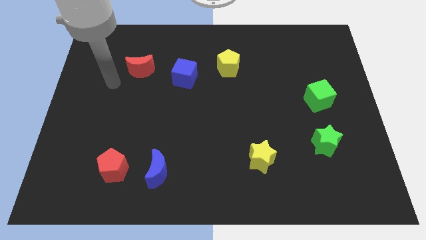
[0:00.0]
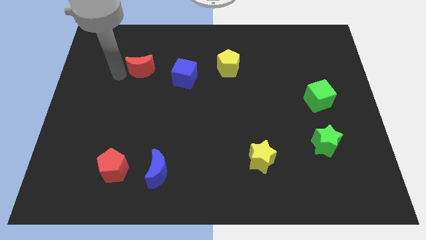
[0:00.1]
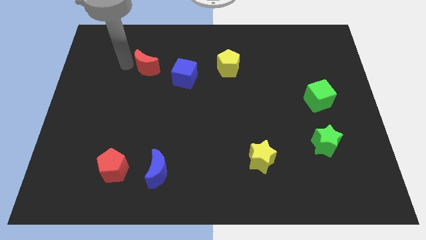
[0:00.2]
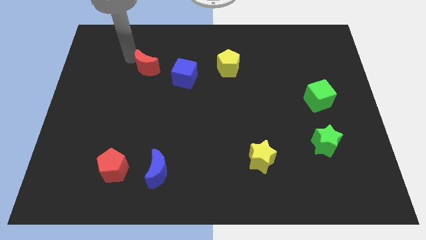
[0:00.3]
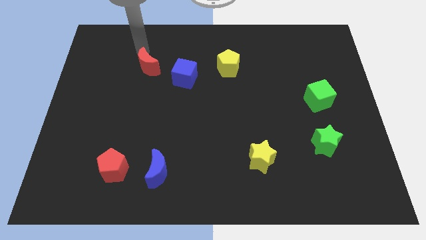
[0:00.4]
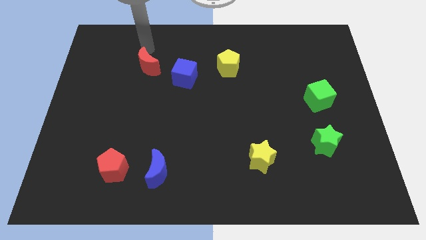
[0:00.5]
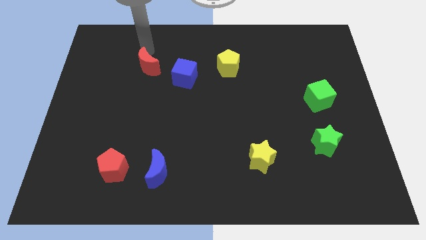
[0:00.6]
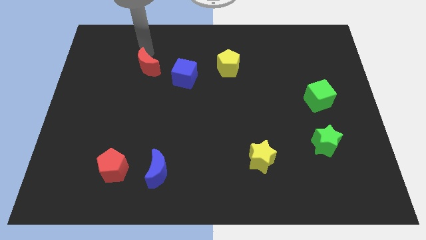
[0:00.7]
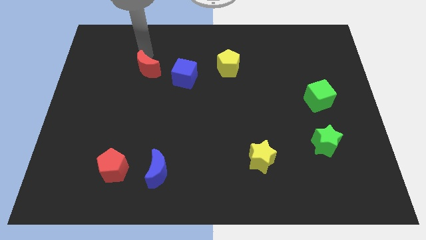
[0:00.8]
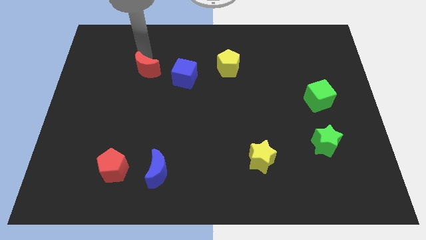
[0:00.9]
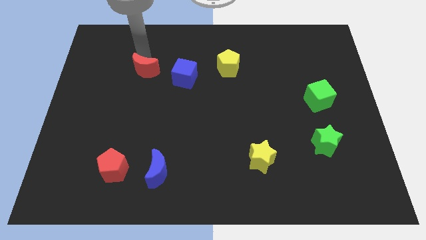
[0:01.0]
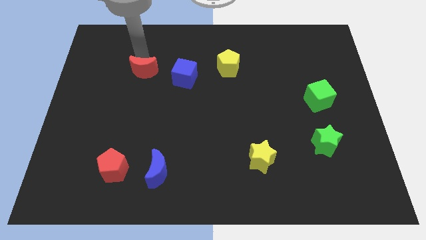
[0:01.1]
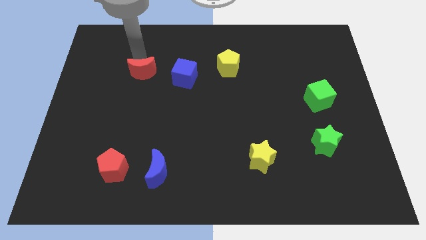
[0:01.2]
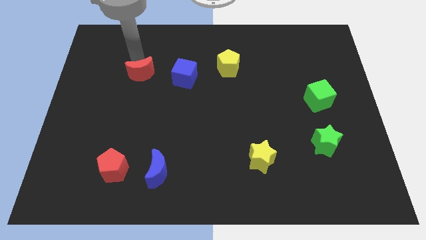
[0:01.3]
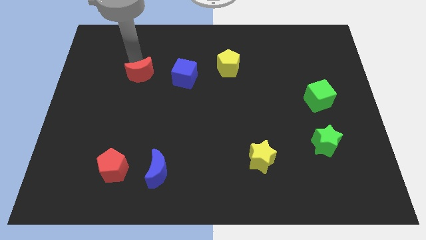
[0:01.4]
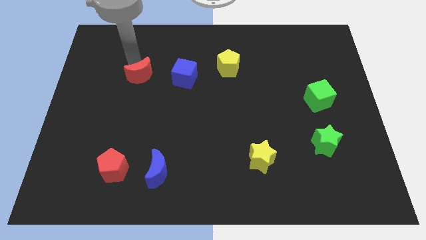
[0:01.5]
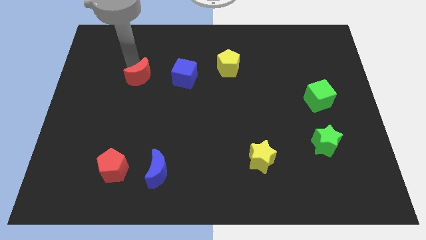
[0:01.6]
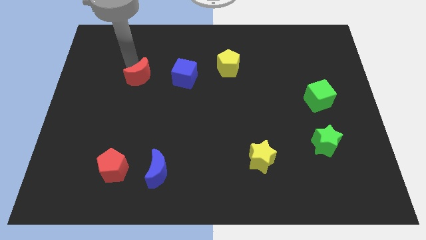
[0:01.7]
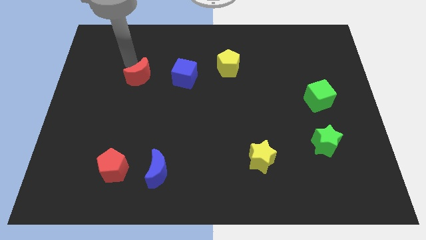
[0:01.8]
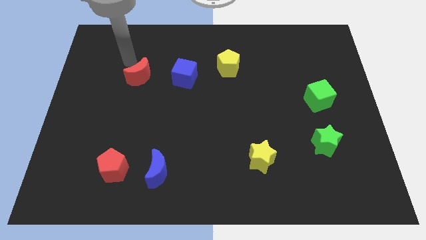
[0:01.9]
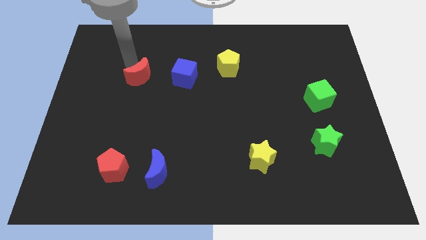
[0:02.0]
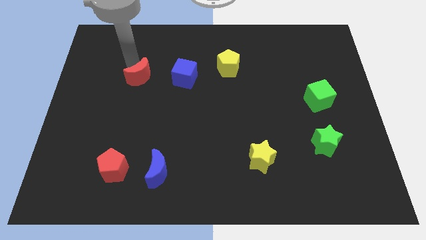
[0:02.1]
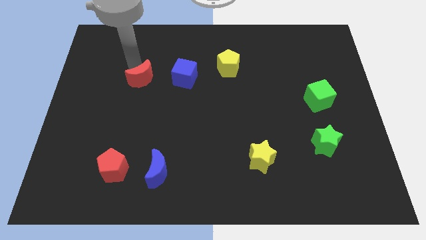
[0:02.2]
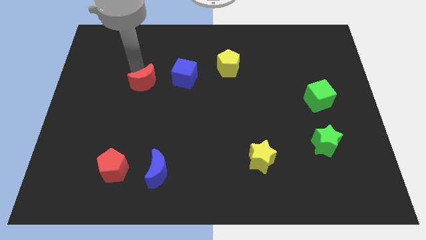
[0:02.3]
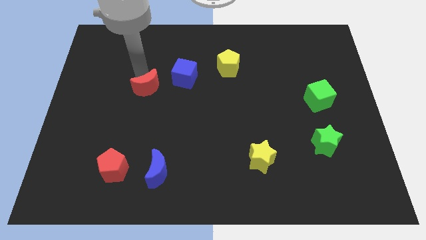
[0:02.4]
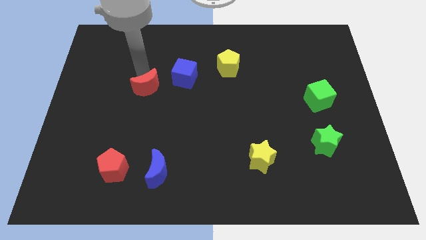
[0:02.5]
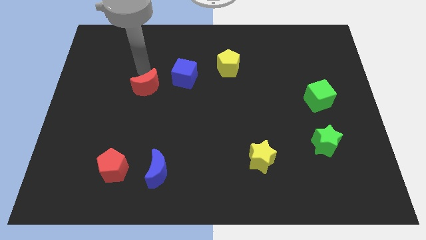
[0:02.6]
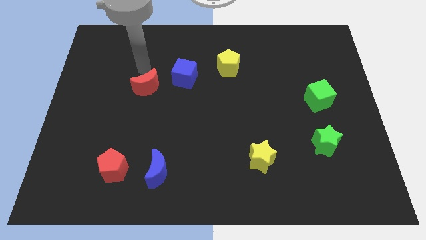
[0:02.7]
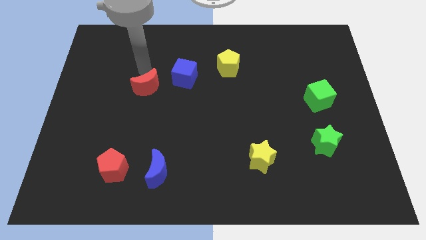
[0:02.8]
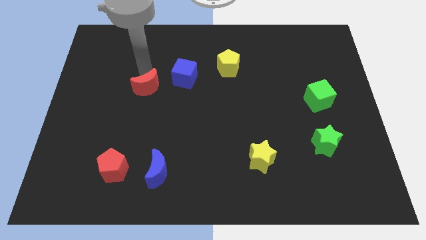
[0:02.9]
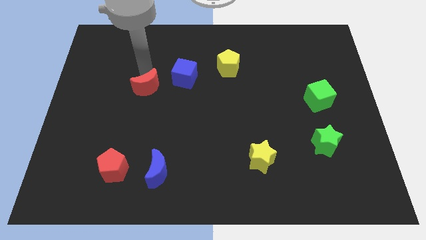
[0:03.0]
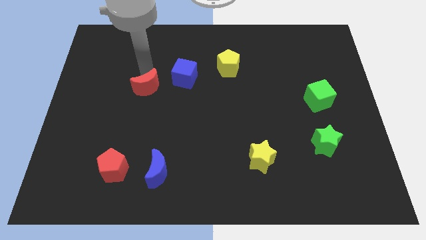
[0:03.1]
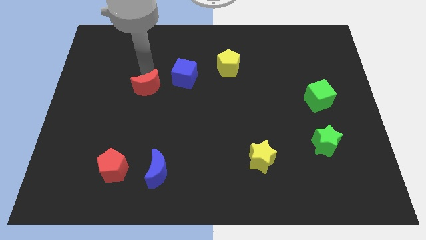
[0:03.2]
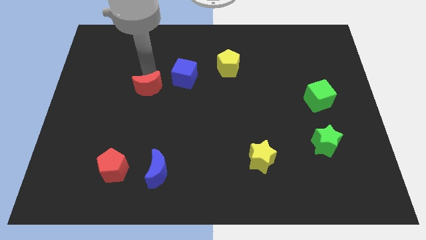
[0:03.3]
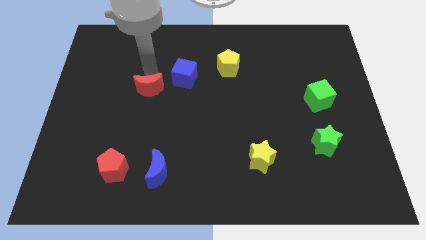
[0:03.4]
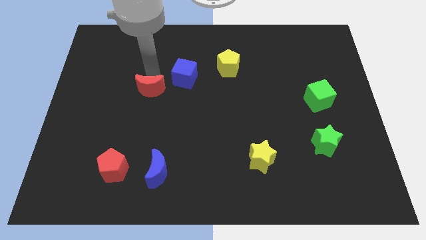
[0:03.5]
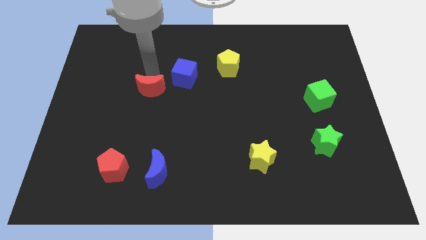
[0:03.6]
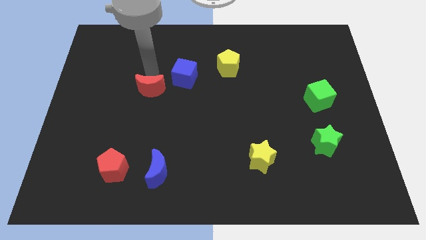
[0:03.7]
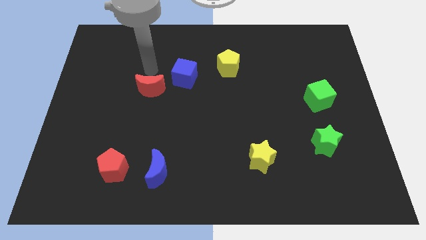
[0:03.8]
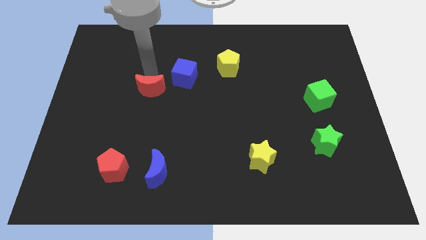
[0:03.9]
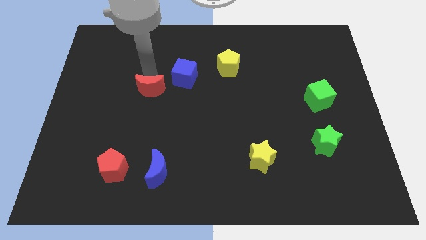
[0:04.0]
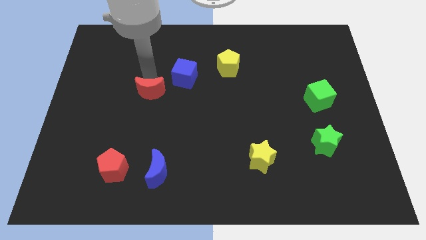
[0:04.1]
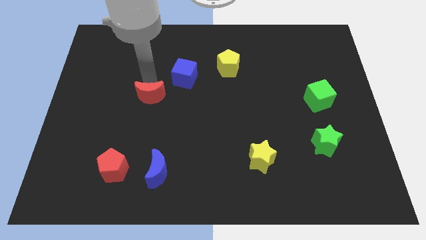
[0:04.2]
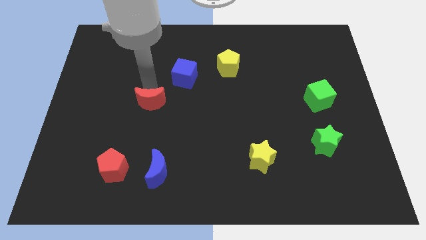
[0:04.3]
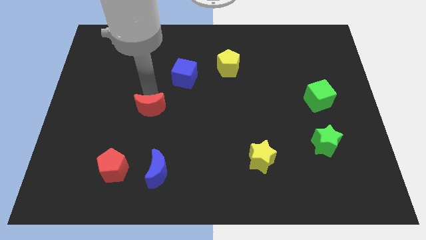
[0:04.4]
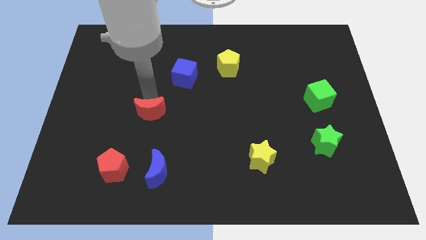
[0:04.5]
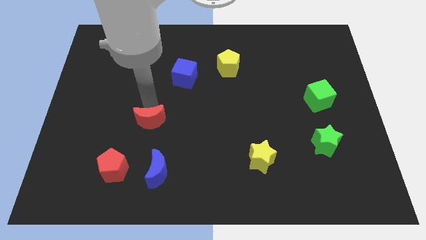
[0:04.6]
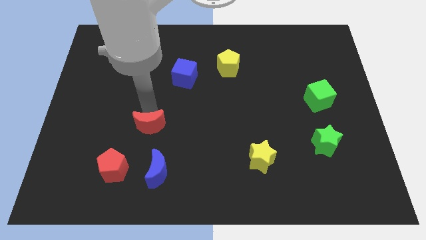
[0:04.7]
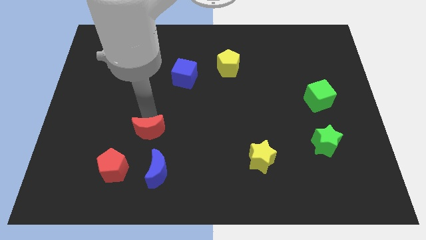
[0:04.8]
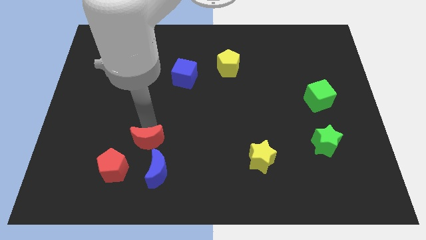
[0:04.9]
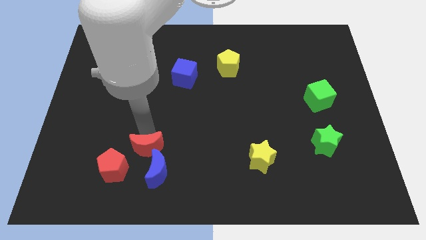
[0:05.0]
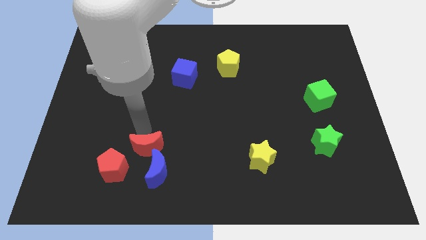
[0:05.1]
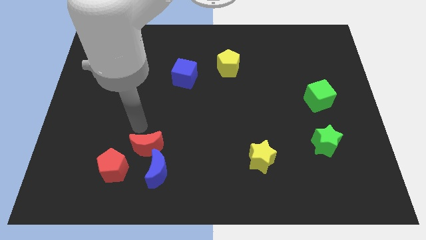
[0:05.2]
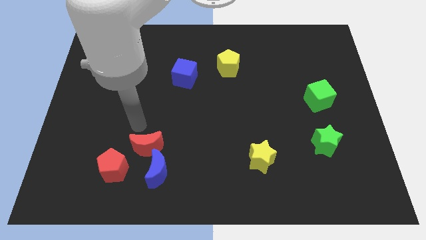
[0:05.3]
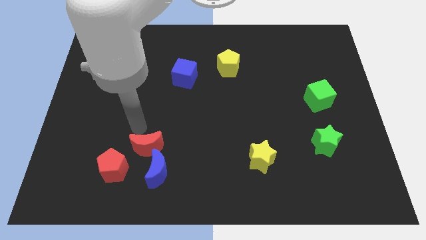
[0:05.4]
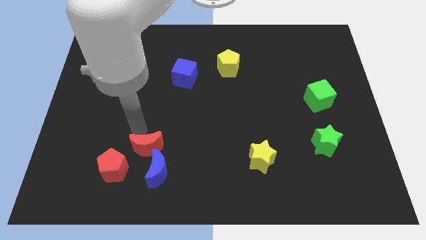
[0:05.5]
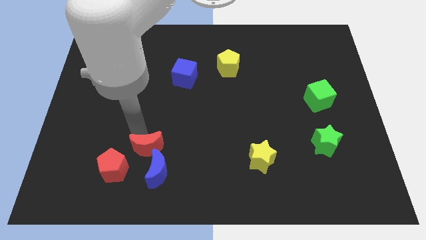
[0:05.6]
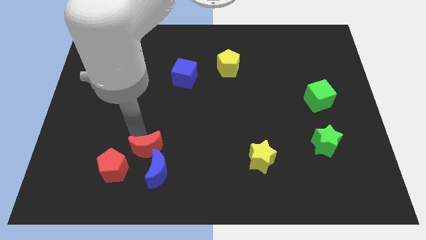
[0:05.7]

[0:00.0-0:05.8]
slide the red moon to the blue moon

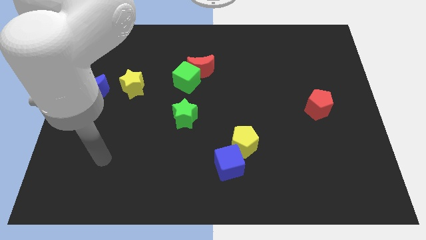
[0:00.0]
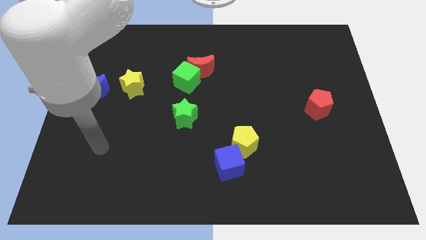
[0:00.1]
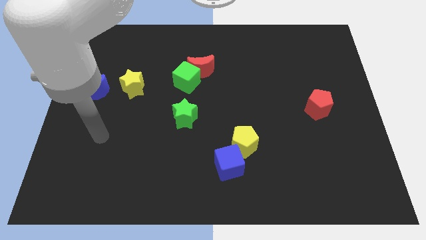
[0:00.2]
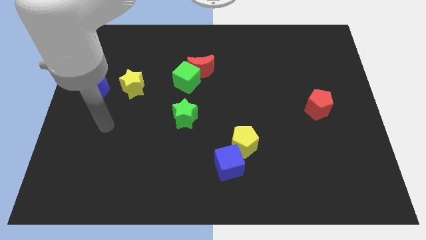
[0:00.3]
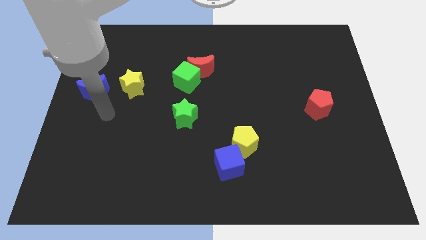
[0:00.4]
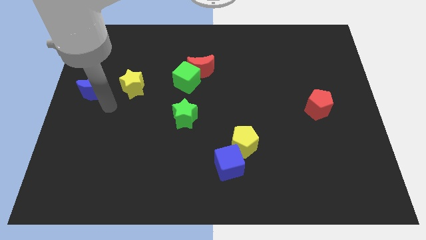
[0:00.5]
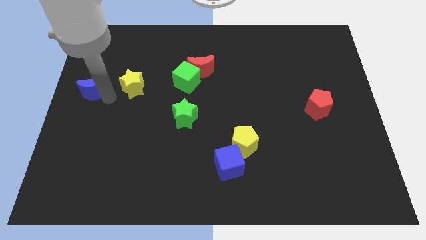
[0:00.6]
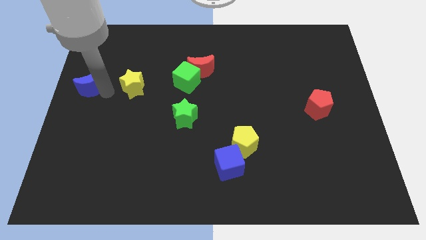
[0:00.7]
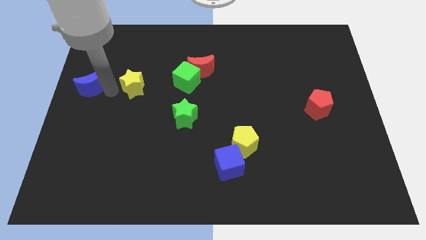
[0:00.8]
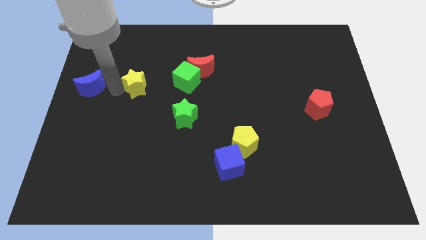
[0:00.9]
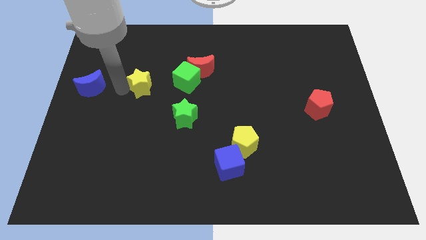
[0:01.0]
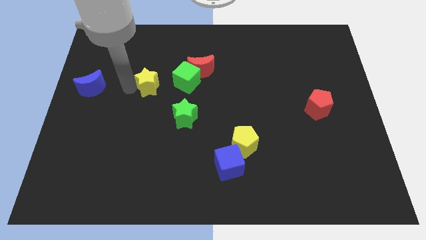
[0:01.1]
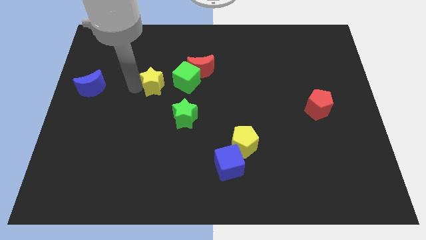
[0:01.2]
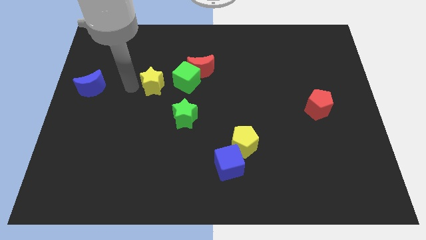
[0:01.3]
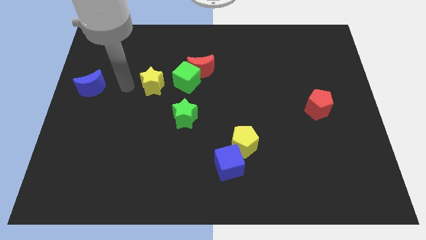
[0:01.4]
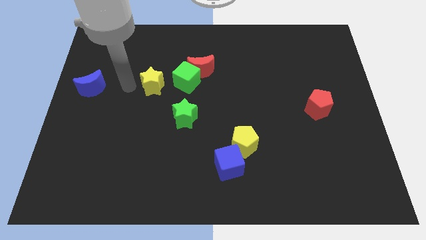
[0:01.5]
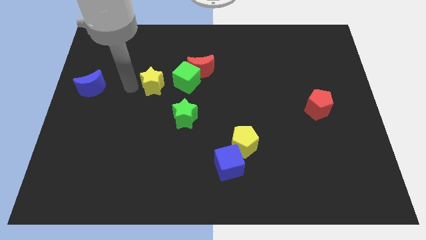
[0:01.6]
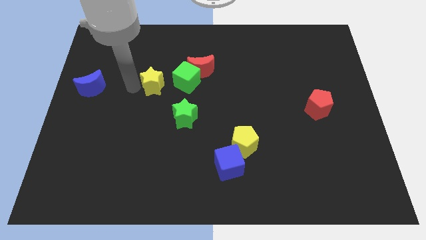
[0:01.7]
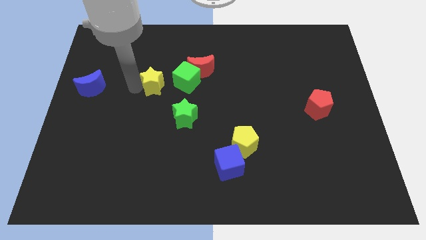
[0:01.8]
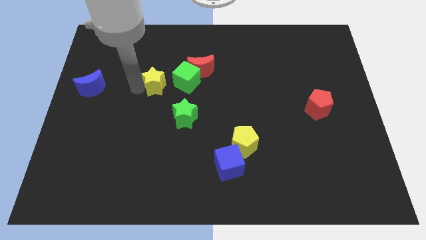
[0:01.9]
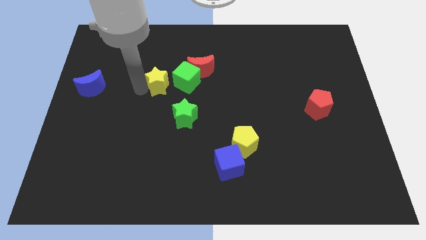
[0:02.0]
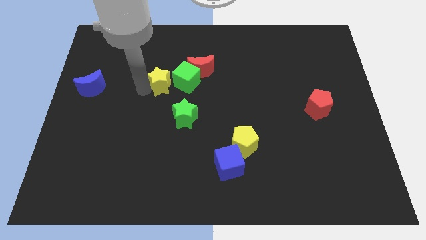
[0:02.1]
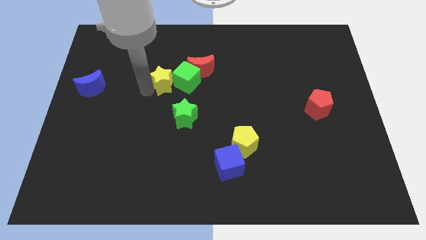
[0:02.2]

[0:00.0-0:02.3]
move the yellow star close to the green cube
